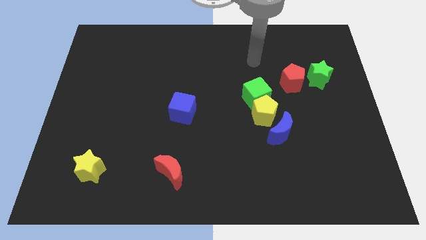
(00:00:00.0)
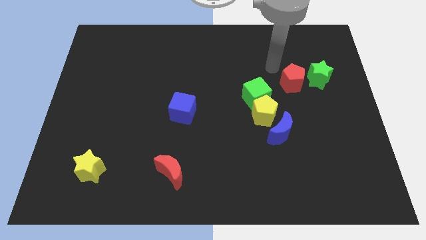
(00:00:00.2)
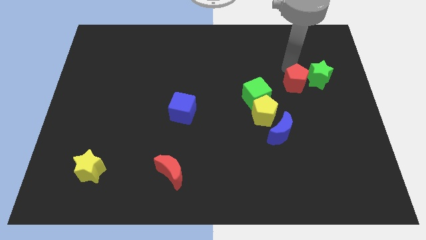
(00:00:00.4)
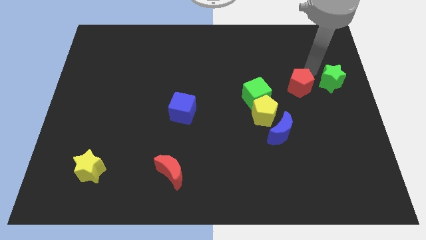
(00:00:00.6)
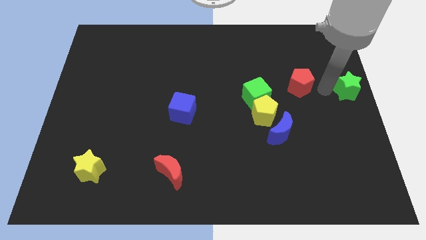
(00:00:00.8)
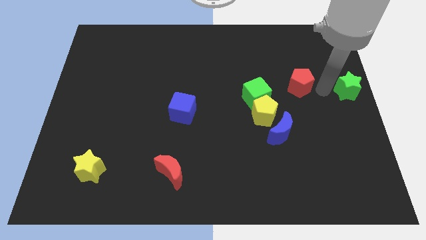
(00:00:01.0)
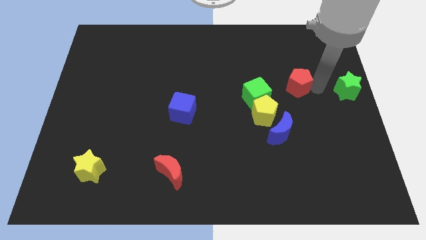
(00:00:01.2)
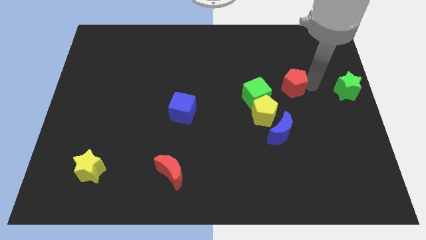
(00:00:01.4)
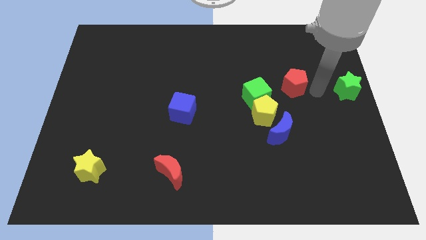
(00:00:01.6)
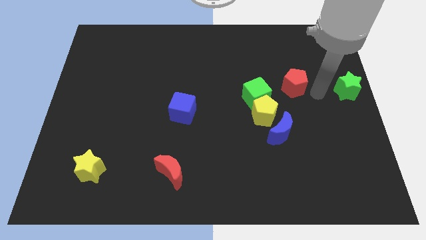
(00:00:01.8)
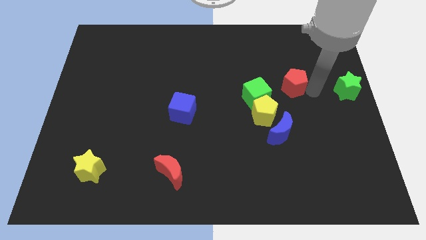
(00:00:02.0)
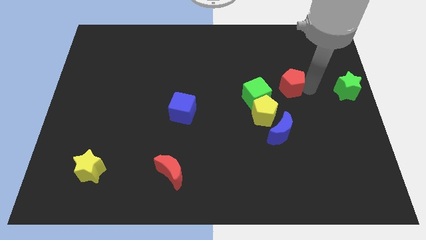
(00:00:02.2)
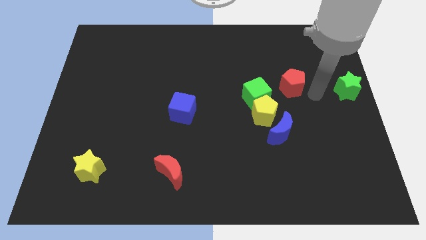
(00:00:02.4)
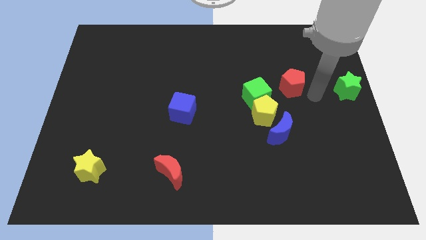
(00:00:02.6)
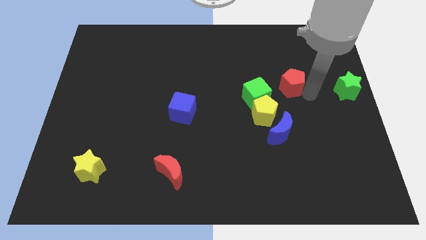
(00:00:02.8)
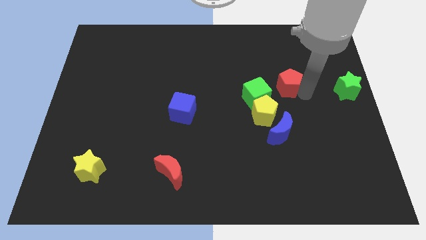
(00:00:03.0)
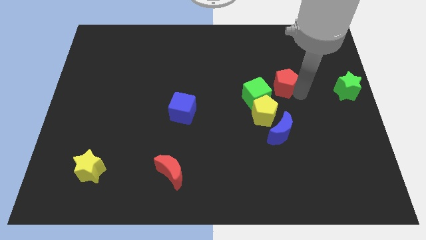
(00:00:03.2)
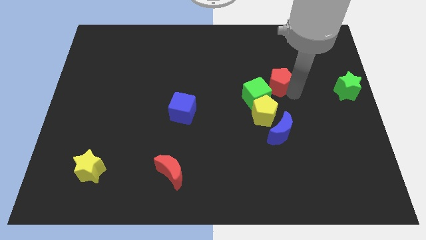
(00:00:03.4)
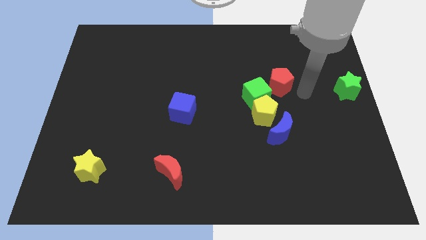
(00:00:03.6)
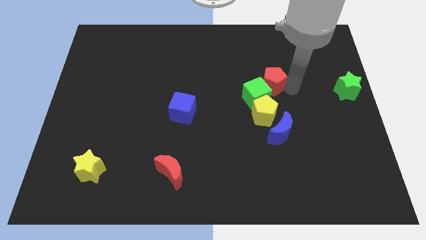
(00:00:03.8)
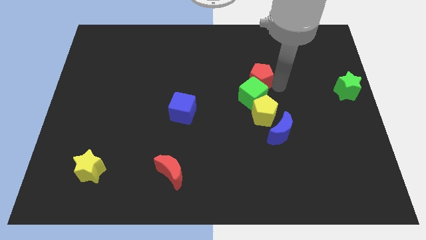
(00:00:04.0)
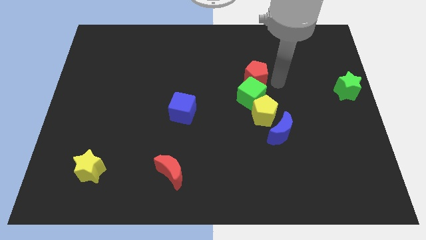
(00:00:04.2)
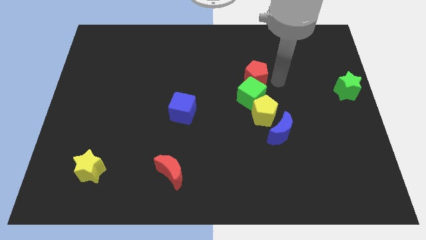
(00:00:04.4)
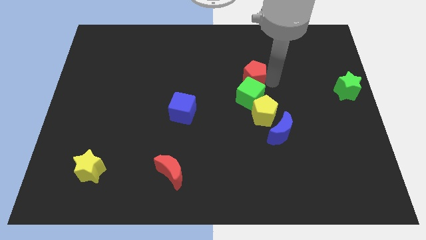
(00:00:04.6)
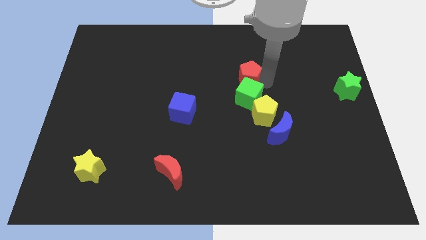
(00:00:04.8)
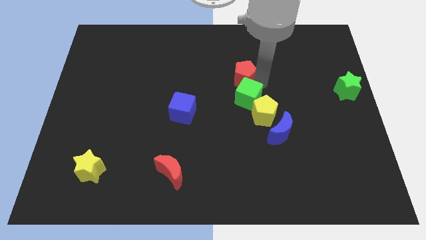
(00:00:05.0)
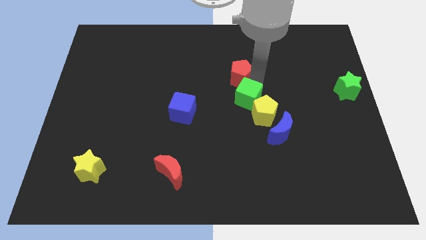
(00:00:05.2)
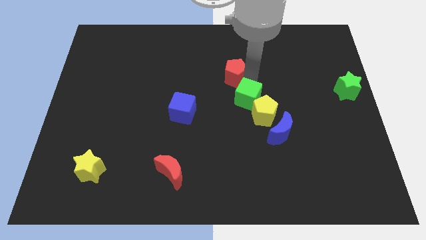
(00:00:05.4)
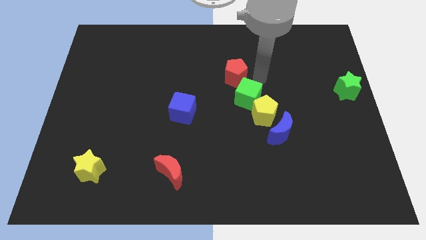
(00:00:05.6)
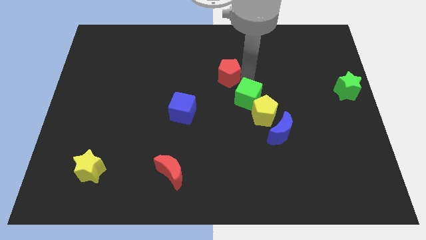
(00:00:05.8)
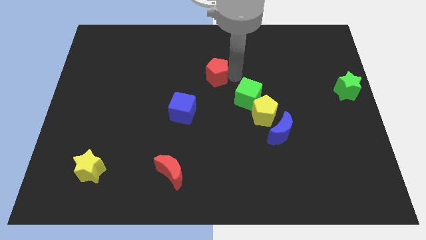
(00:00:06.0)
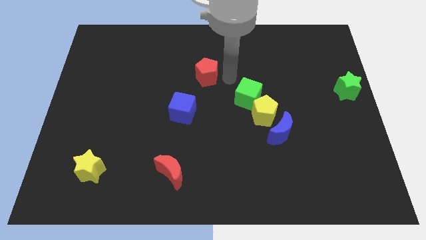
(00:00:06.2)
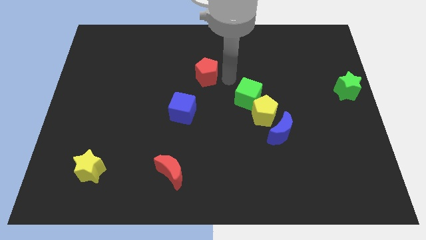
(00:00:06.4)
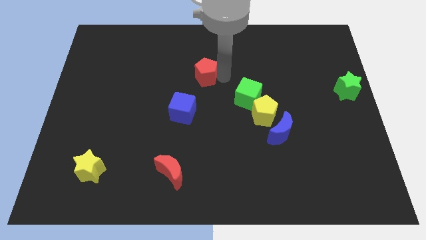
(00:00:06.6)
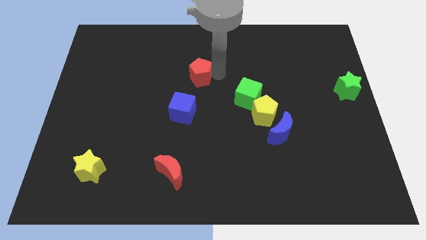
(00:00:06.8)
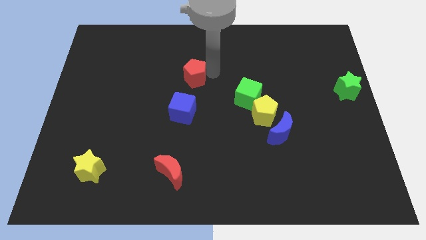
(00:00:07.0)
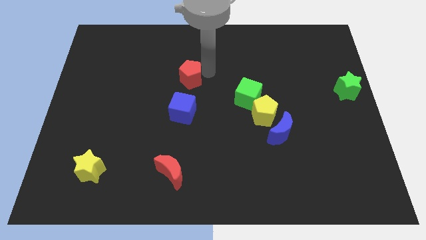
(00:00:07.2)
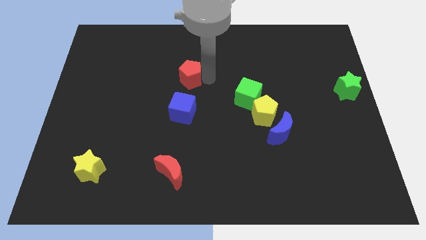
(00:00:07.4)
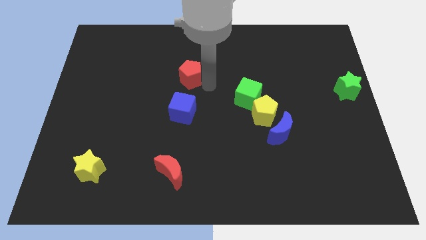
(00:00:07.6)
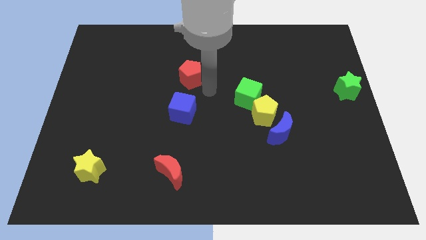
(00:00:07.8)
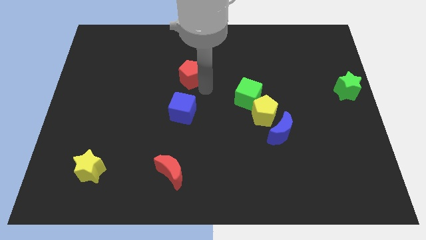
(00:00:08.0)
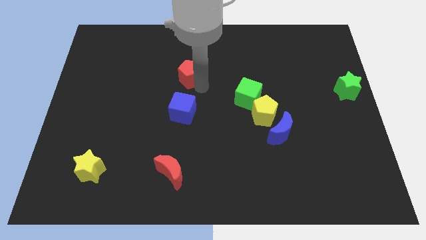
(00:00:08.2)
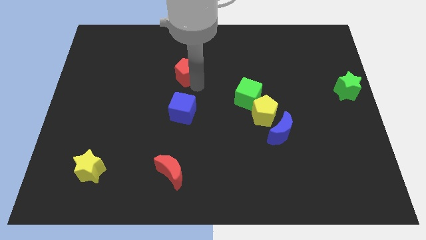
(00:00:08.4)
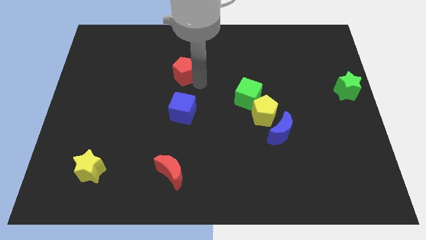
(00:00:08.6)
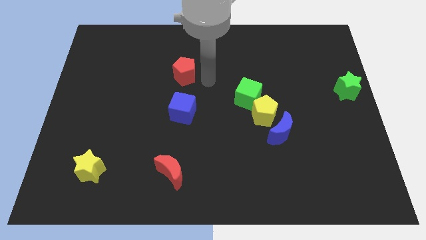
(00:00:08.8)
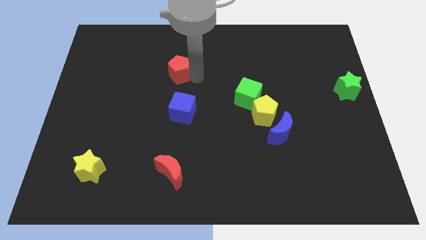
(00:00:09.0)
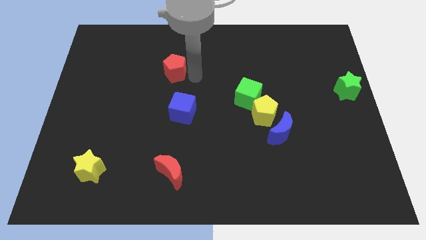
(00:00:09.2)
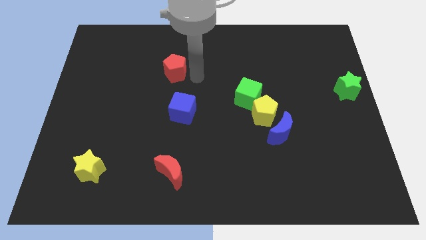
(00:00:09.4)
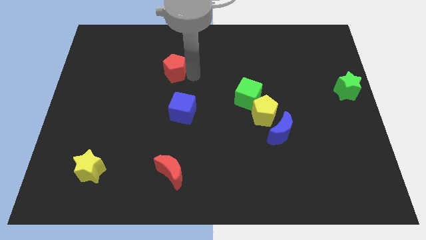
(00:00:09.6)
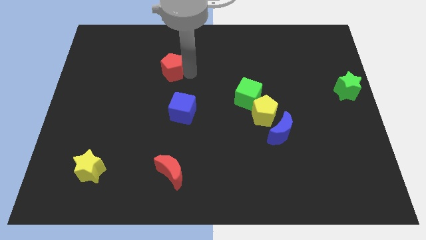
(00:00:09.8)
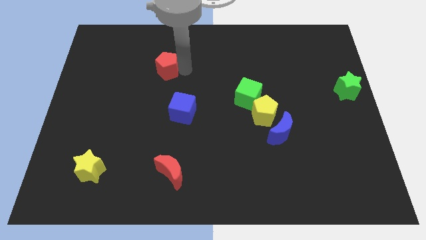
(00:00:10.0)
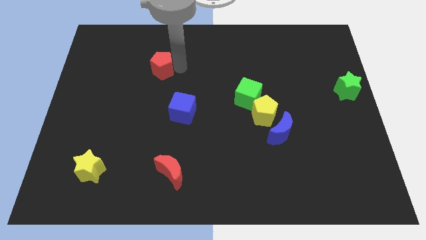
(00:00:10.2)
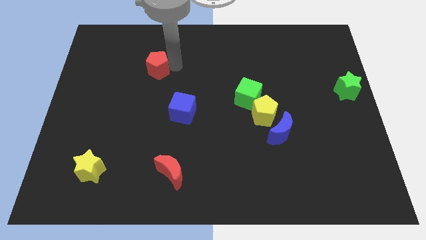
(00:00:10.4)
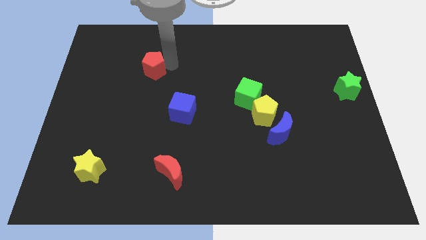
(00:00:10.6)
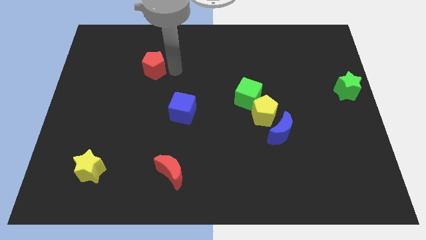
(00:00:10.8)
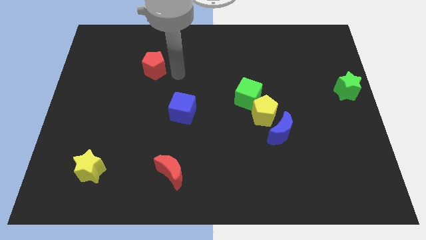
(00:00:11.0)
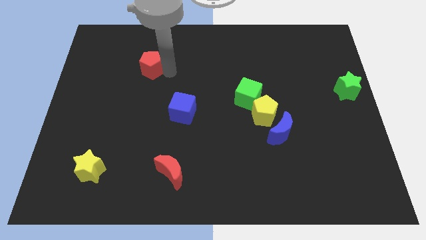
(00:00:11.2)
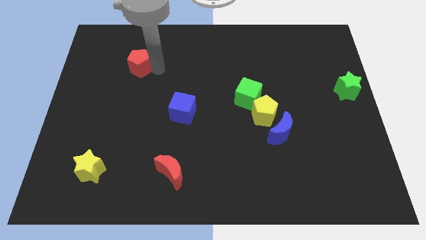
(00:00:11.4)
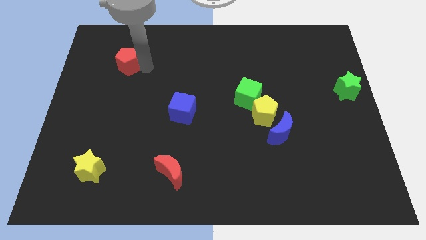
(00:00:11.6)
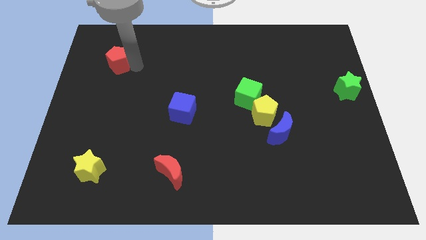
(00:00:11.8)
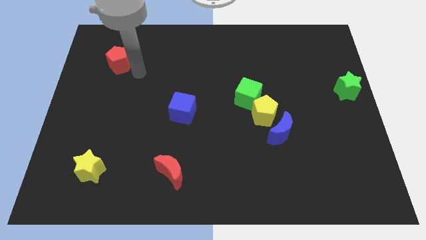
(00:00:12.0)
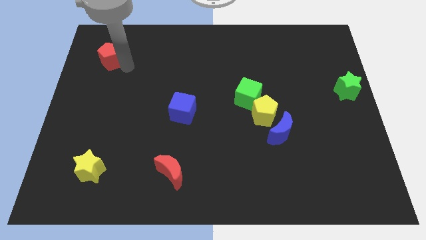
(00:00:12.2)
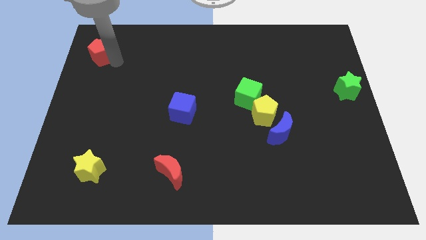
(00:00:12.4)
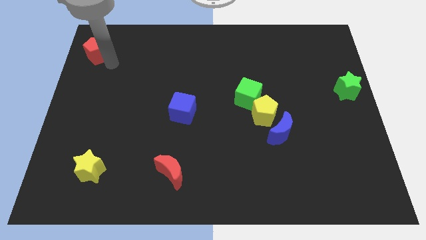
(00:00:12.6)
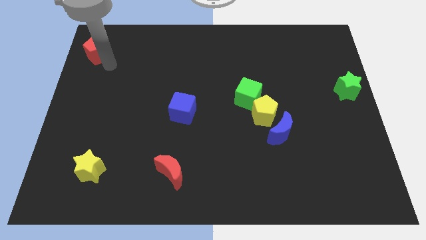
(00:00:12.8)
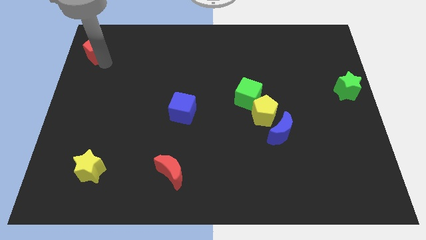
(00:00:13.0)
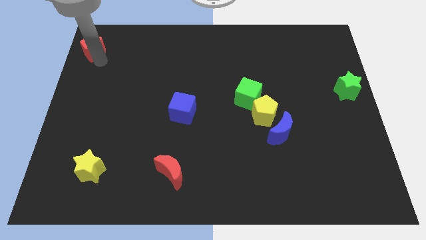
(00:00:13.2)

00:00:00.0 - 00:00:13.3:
slide the red pentagon to the top left corner
